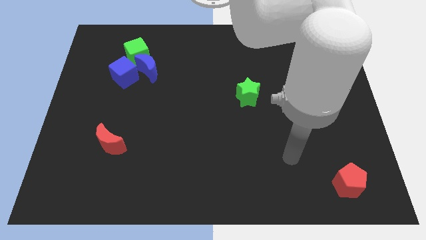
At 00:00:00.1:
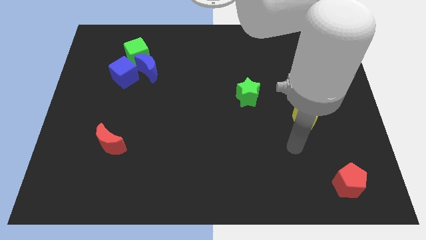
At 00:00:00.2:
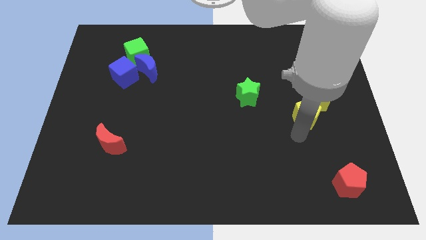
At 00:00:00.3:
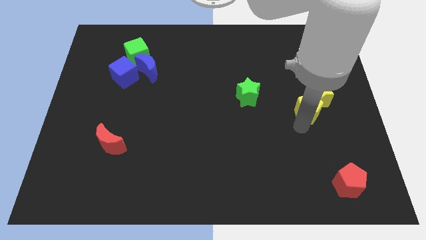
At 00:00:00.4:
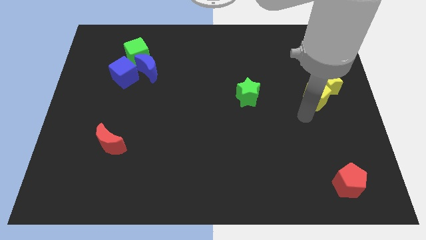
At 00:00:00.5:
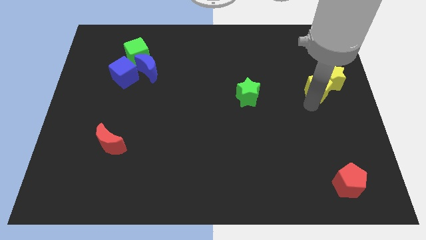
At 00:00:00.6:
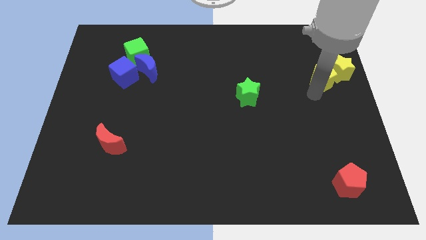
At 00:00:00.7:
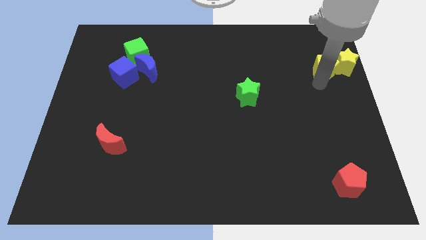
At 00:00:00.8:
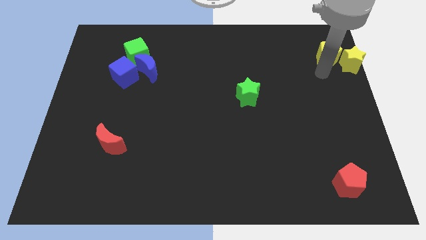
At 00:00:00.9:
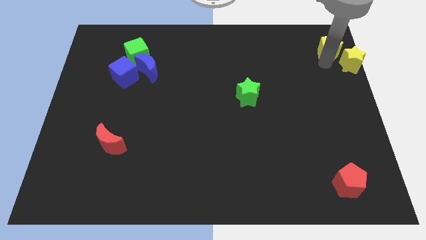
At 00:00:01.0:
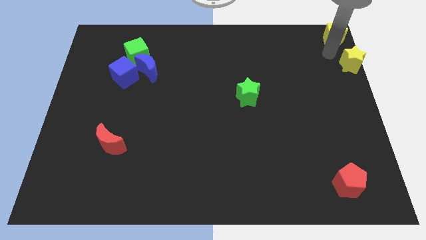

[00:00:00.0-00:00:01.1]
pull the yellow star apart from the yellow pentagon

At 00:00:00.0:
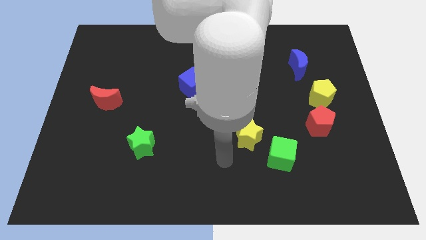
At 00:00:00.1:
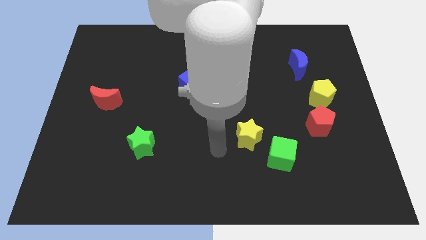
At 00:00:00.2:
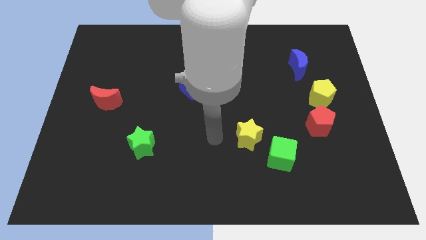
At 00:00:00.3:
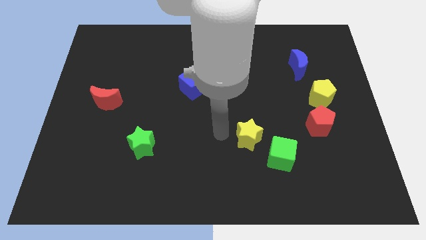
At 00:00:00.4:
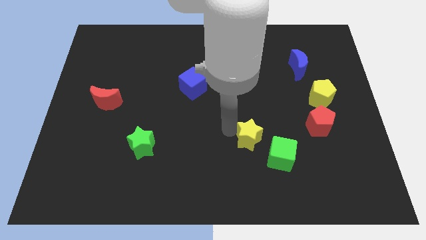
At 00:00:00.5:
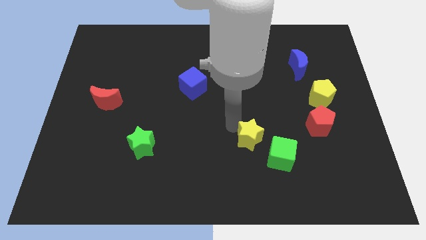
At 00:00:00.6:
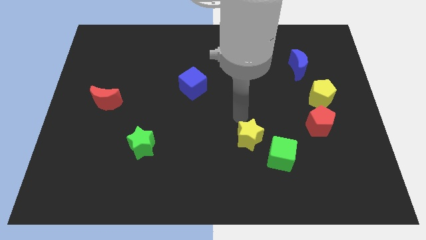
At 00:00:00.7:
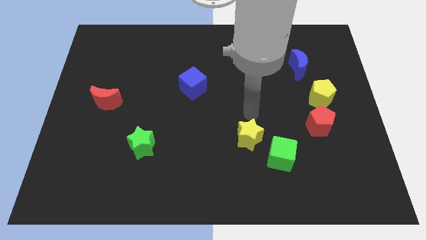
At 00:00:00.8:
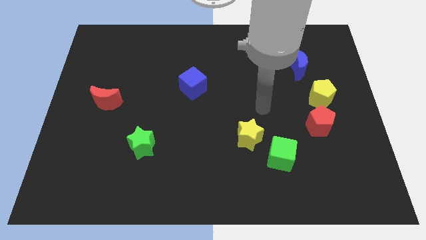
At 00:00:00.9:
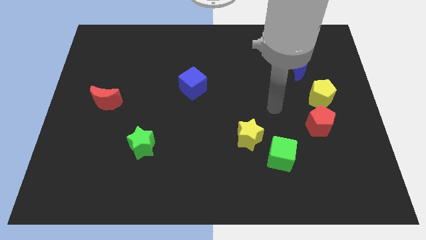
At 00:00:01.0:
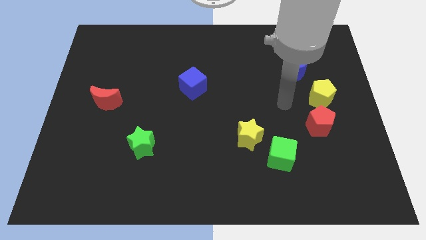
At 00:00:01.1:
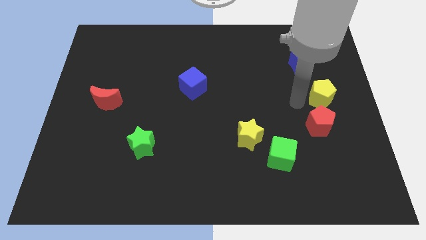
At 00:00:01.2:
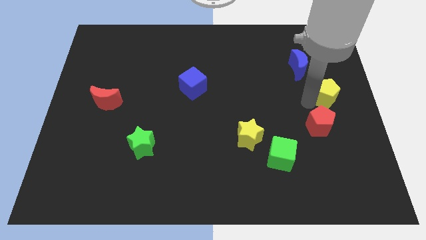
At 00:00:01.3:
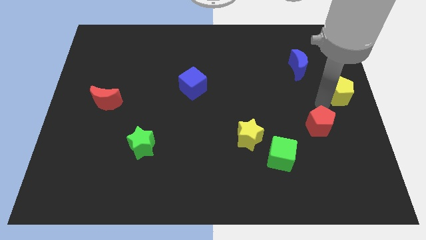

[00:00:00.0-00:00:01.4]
separate the red pentagon from the yellow pentagon

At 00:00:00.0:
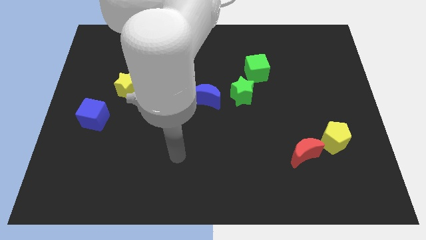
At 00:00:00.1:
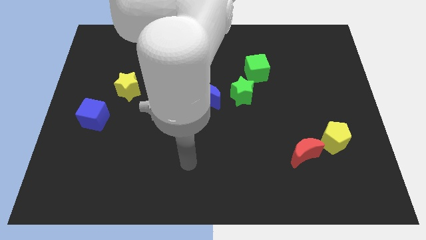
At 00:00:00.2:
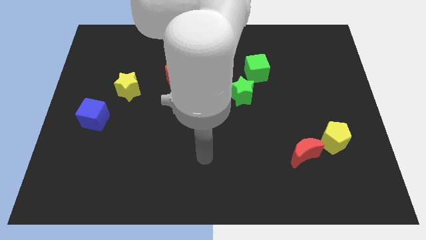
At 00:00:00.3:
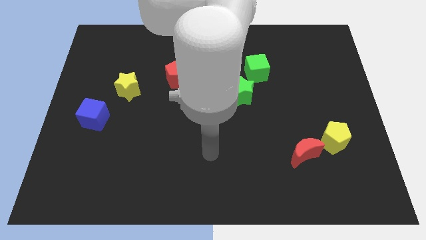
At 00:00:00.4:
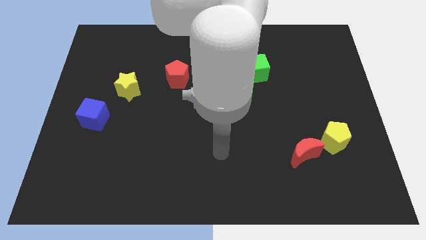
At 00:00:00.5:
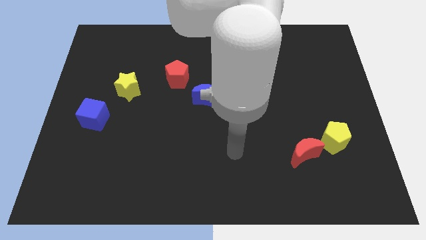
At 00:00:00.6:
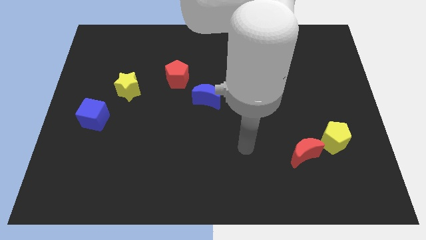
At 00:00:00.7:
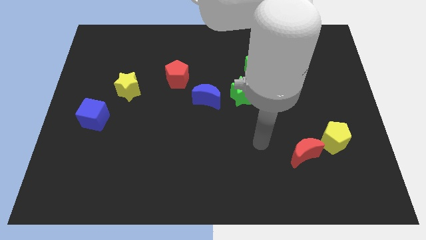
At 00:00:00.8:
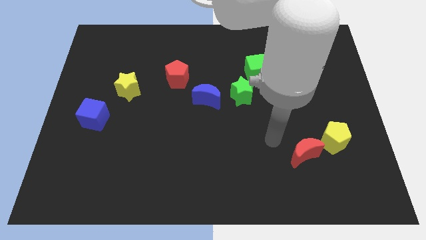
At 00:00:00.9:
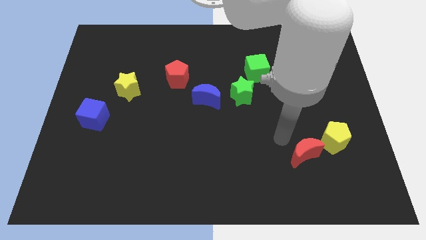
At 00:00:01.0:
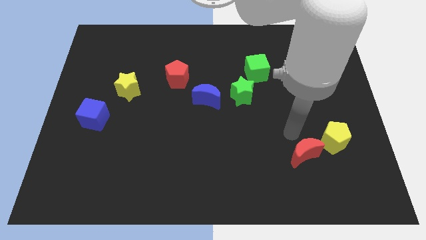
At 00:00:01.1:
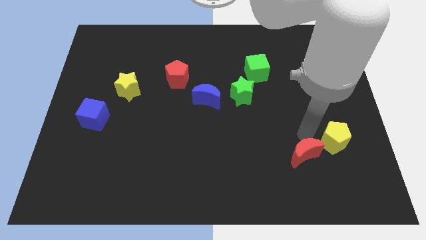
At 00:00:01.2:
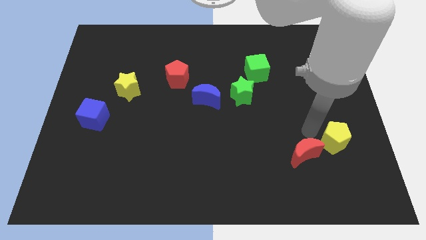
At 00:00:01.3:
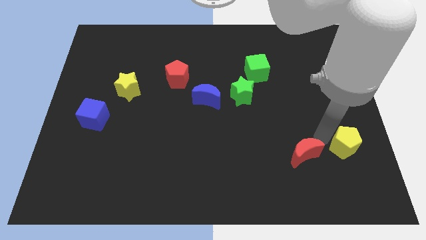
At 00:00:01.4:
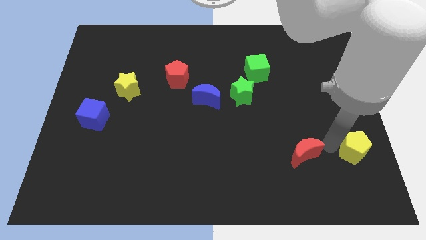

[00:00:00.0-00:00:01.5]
move the red moon away from the yellow pentagon

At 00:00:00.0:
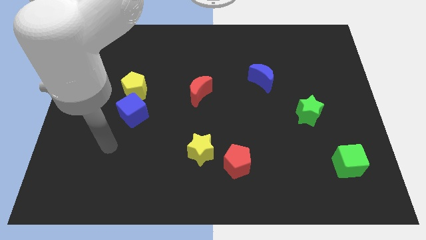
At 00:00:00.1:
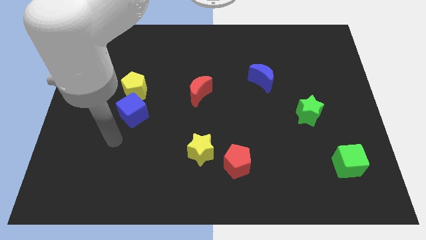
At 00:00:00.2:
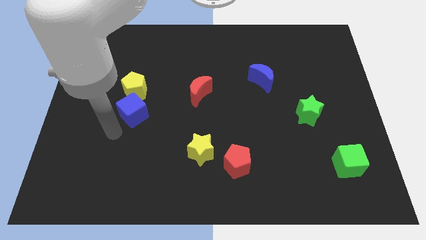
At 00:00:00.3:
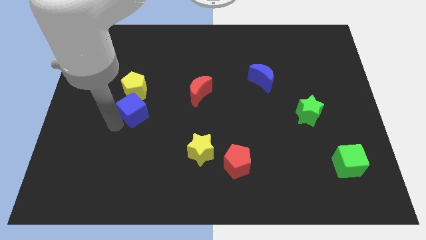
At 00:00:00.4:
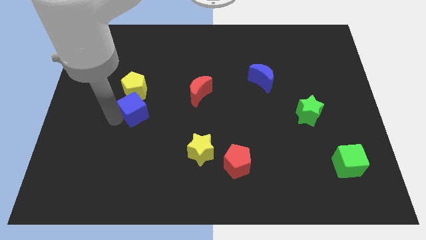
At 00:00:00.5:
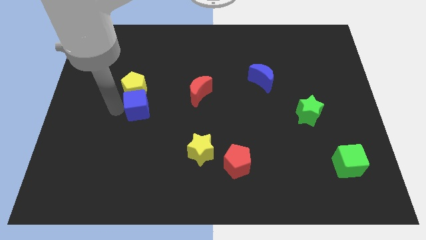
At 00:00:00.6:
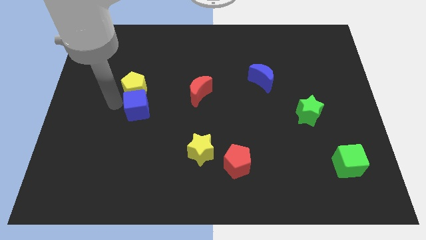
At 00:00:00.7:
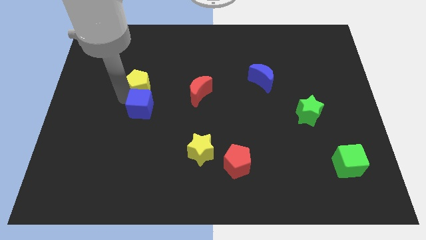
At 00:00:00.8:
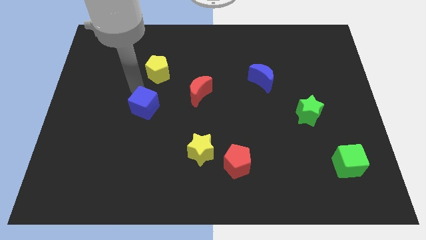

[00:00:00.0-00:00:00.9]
separate the blue cube from the yellow pentagon

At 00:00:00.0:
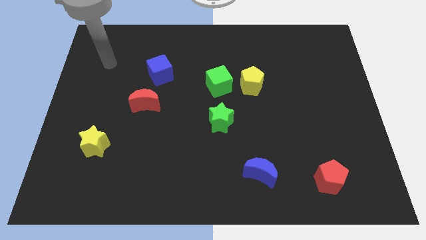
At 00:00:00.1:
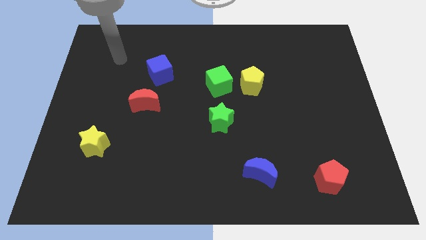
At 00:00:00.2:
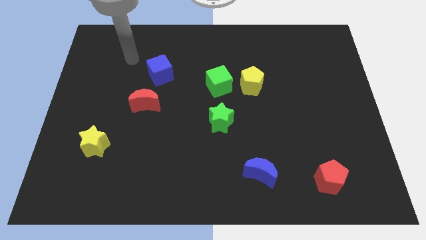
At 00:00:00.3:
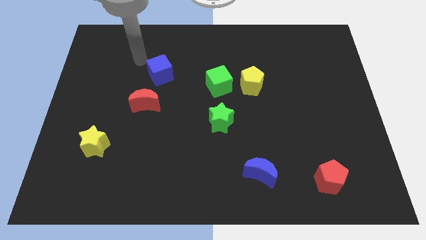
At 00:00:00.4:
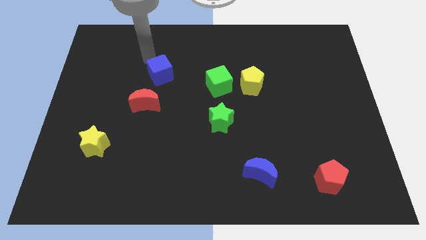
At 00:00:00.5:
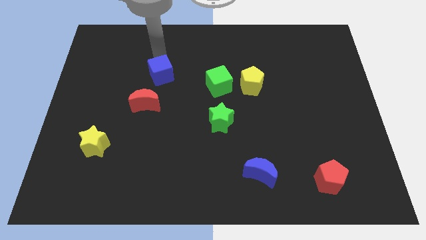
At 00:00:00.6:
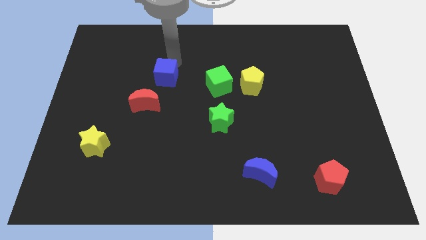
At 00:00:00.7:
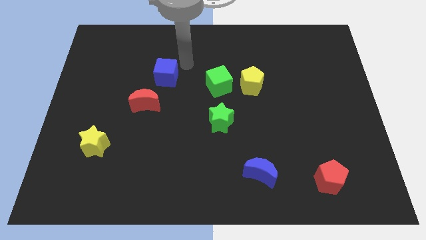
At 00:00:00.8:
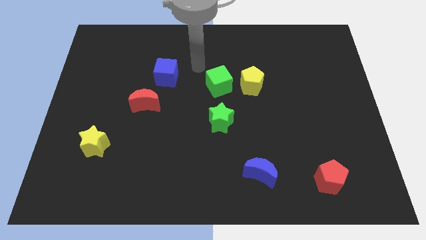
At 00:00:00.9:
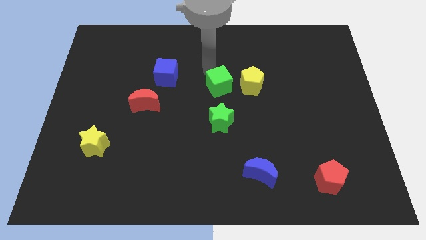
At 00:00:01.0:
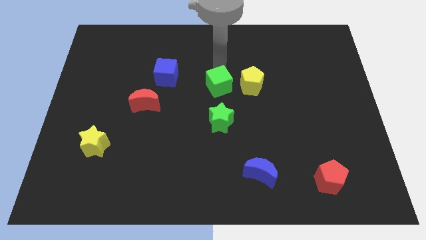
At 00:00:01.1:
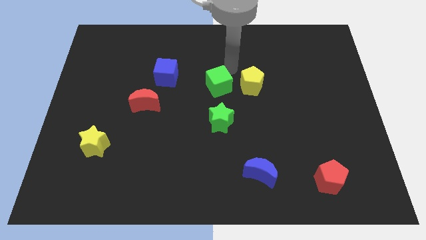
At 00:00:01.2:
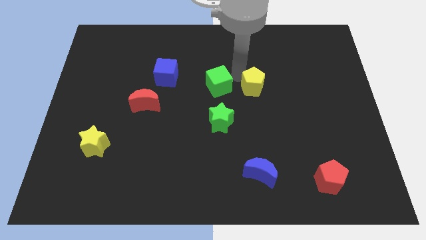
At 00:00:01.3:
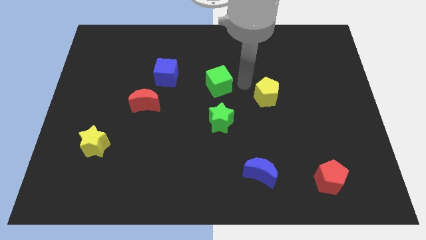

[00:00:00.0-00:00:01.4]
separate the green cube from the yellow pentagon

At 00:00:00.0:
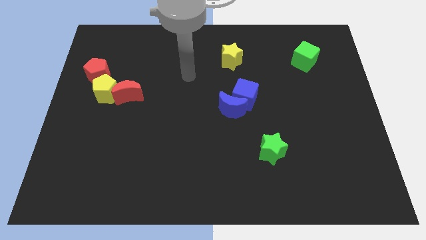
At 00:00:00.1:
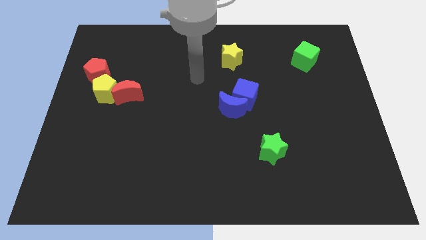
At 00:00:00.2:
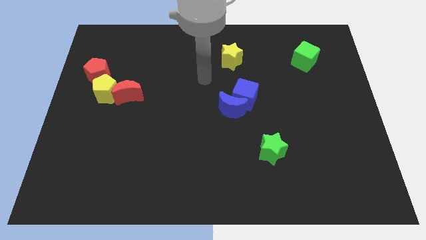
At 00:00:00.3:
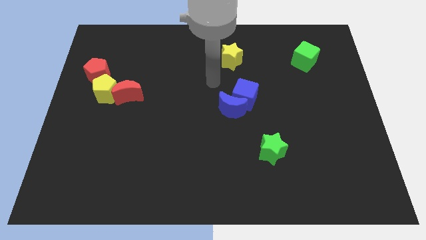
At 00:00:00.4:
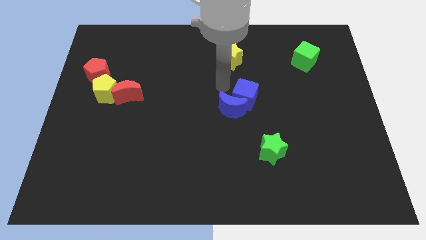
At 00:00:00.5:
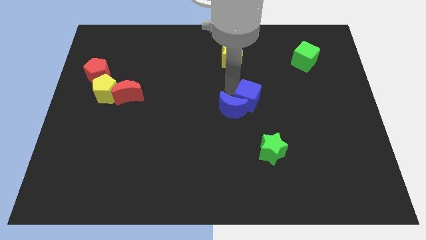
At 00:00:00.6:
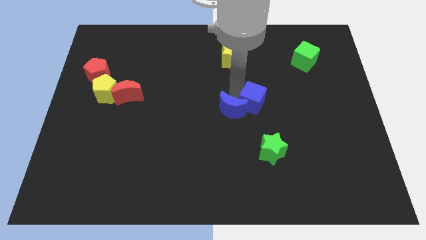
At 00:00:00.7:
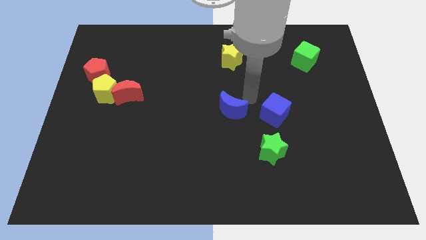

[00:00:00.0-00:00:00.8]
move the blue moon away from the blue cube

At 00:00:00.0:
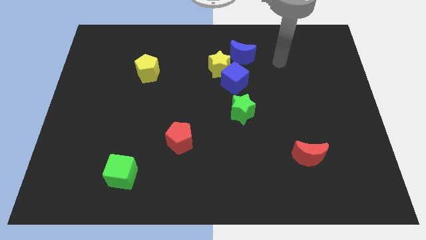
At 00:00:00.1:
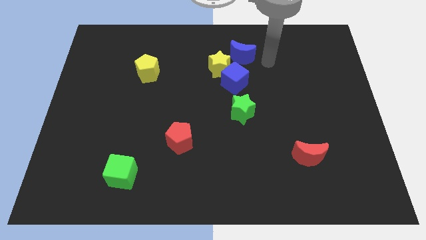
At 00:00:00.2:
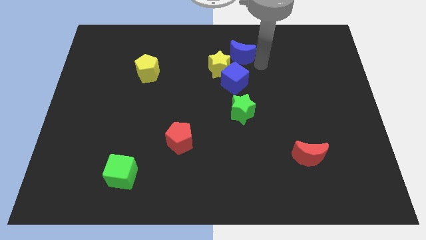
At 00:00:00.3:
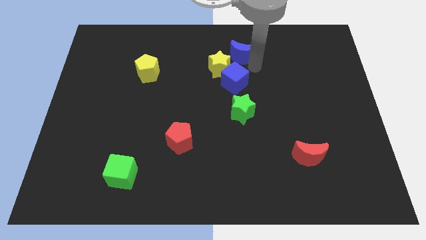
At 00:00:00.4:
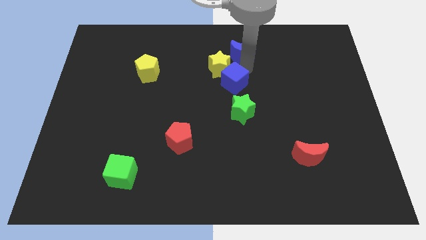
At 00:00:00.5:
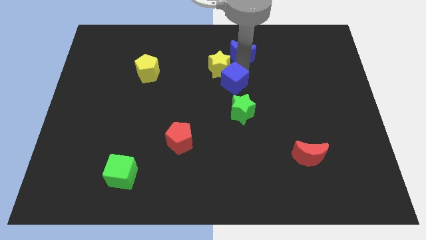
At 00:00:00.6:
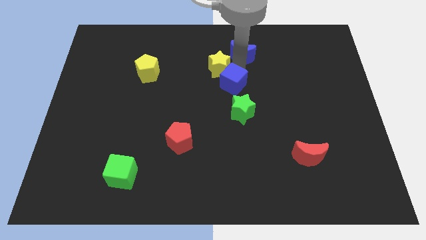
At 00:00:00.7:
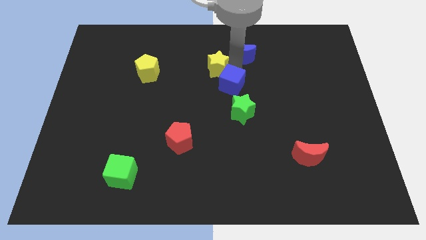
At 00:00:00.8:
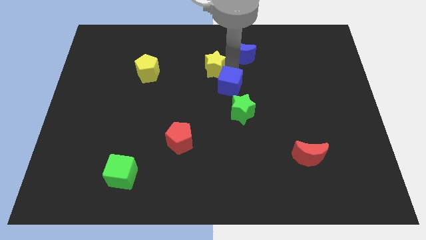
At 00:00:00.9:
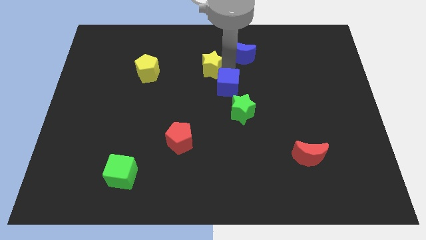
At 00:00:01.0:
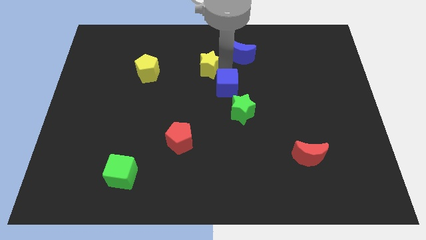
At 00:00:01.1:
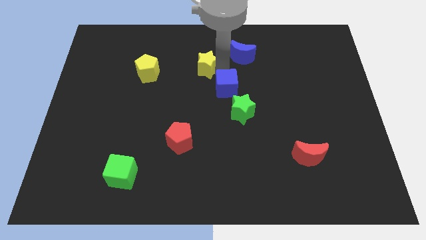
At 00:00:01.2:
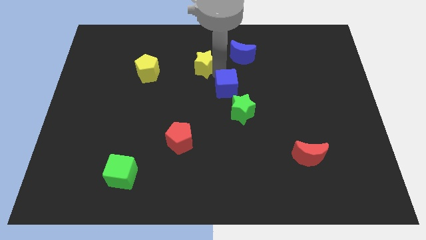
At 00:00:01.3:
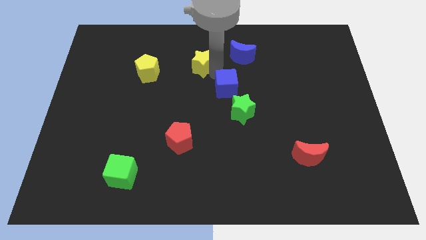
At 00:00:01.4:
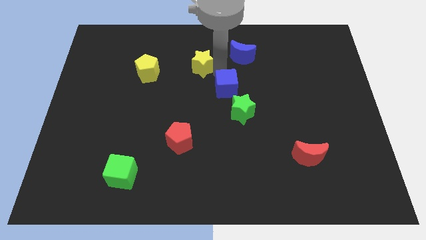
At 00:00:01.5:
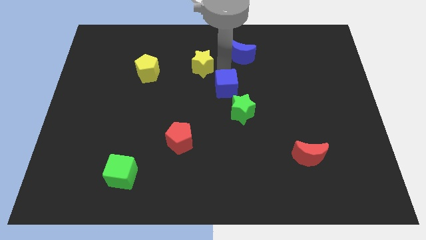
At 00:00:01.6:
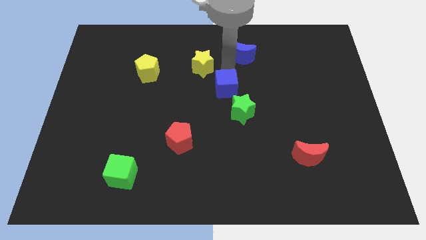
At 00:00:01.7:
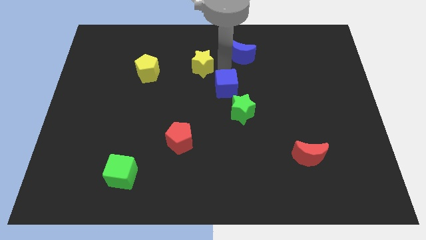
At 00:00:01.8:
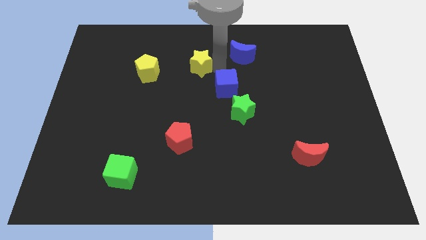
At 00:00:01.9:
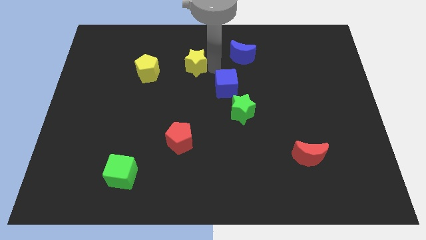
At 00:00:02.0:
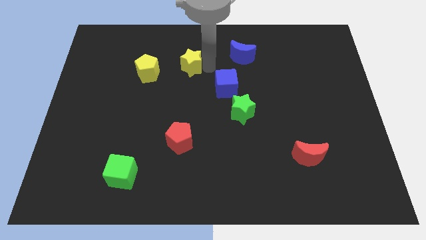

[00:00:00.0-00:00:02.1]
separate the yellow star from the blue cube and blue moon
